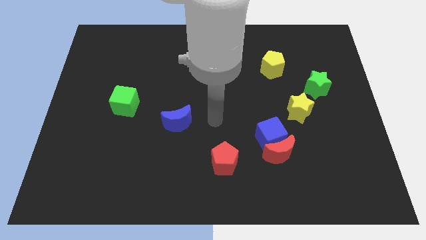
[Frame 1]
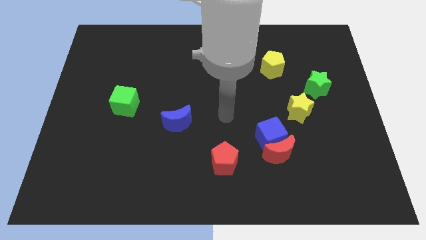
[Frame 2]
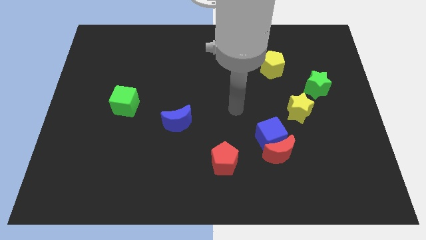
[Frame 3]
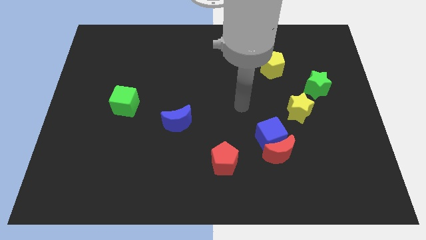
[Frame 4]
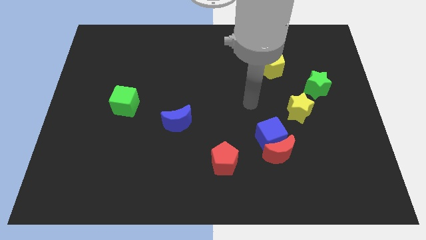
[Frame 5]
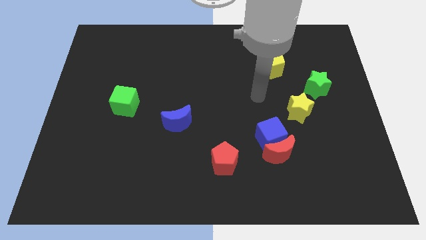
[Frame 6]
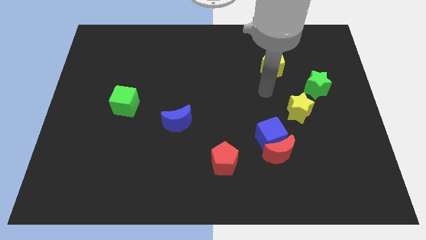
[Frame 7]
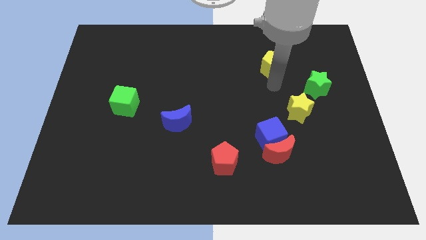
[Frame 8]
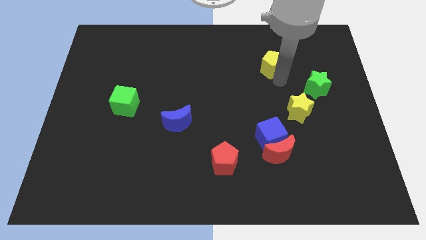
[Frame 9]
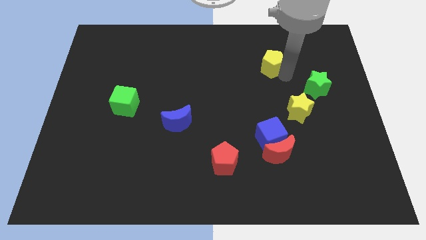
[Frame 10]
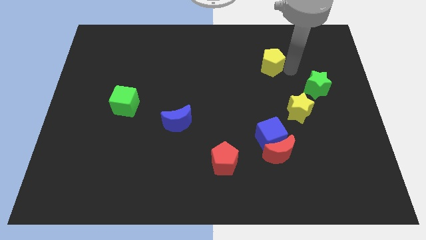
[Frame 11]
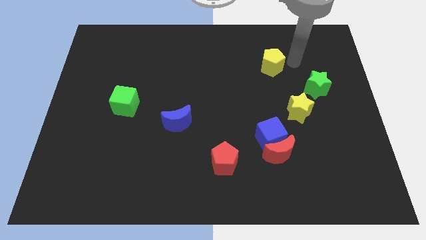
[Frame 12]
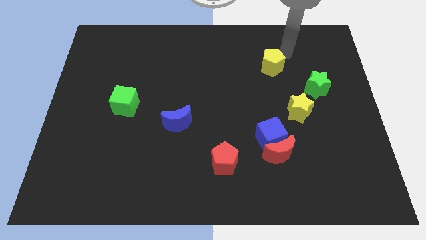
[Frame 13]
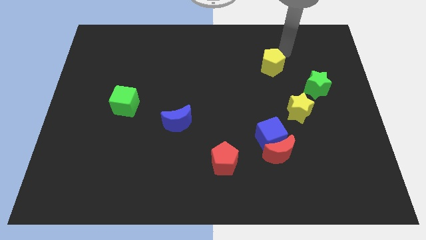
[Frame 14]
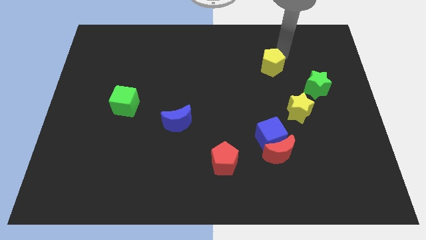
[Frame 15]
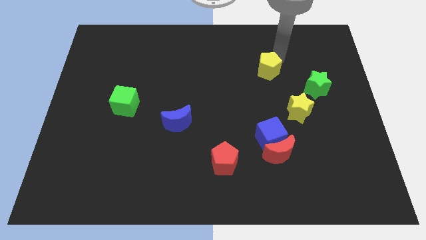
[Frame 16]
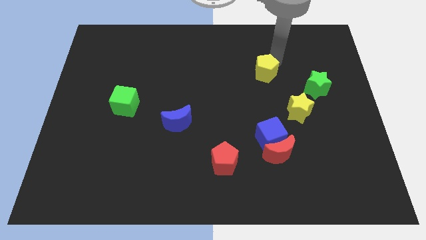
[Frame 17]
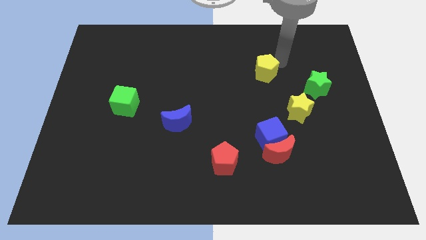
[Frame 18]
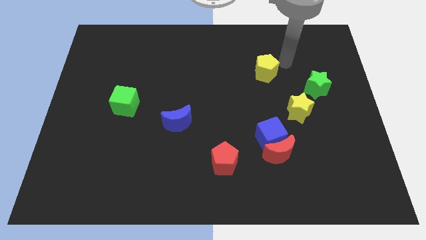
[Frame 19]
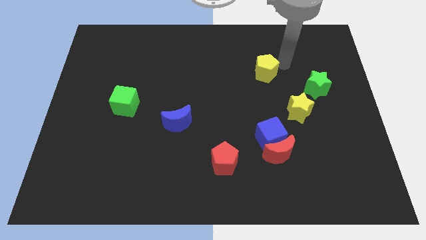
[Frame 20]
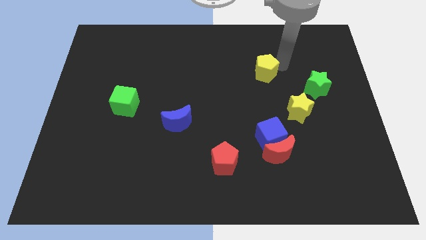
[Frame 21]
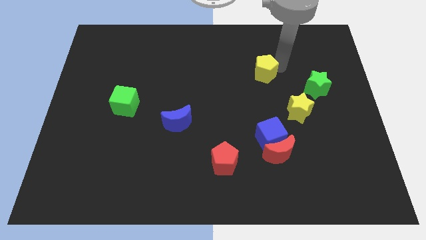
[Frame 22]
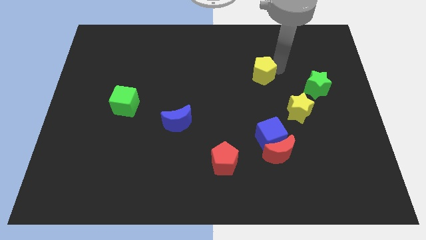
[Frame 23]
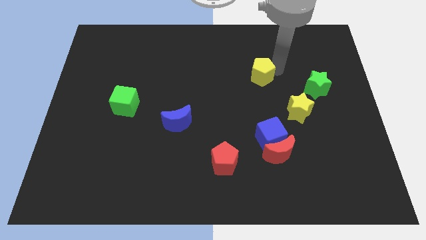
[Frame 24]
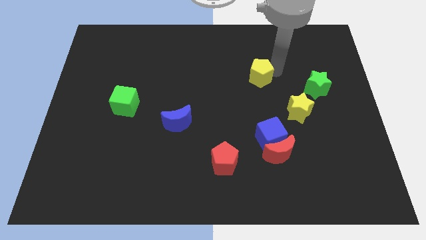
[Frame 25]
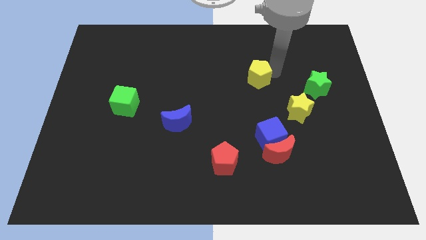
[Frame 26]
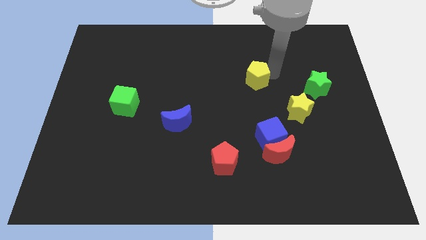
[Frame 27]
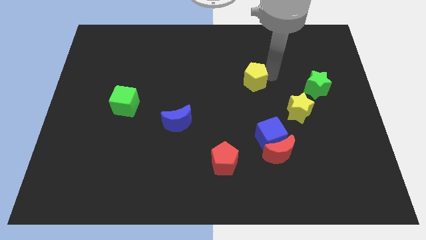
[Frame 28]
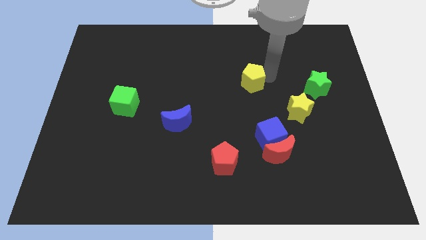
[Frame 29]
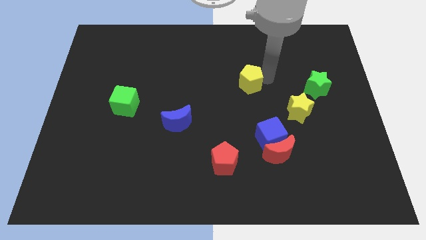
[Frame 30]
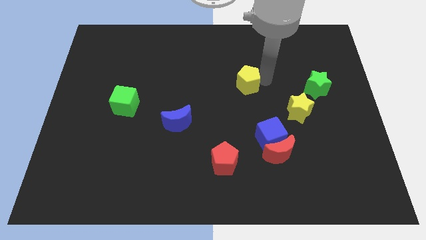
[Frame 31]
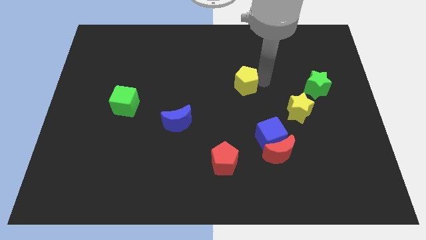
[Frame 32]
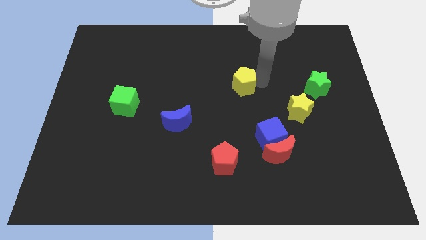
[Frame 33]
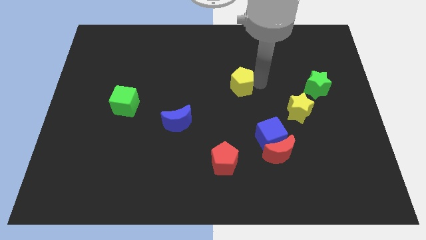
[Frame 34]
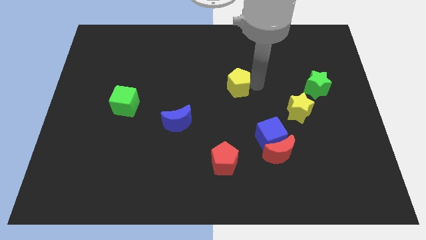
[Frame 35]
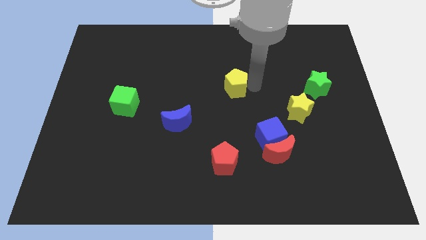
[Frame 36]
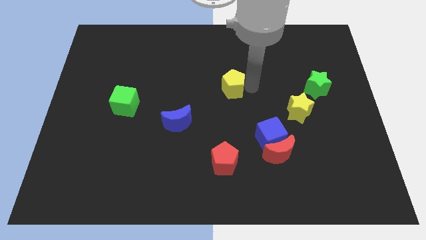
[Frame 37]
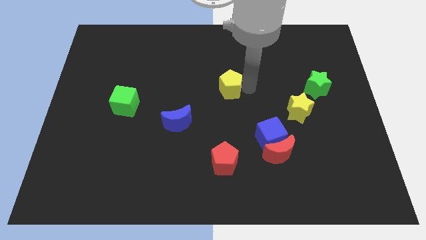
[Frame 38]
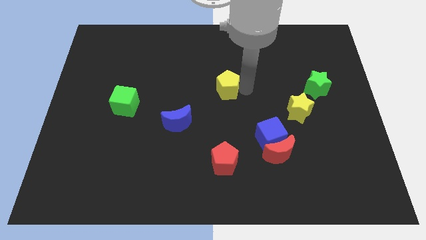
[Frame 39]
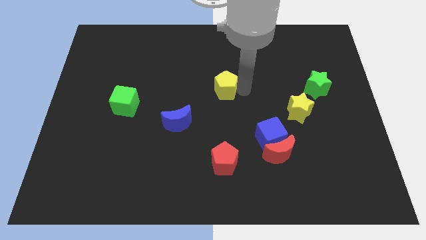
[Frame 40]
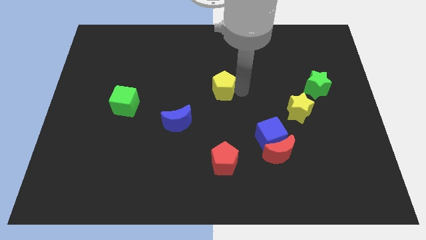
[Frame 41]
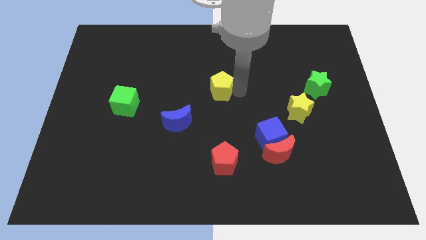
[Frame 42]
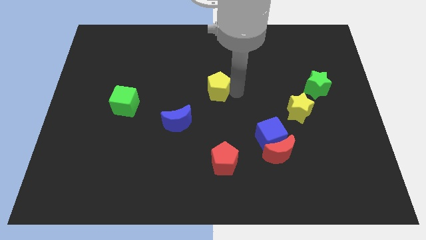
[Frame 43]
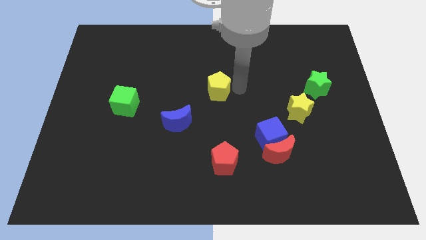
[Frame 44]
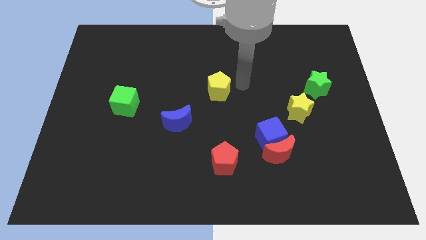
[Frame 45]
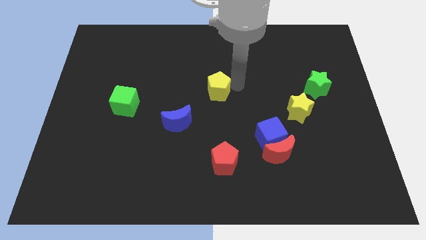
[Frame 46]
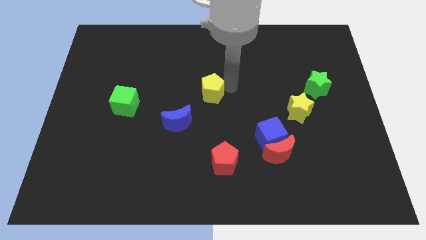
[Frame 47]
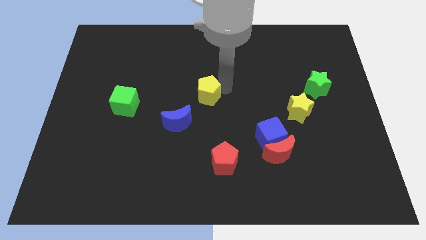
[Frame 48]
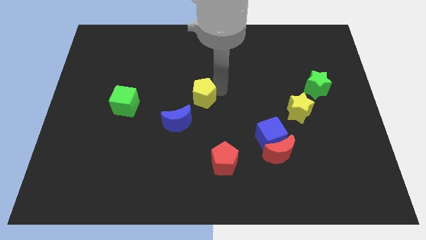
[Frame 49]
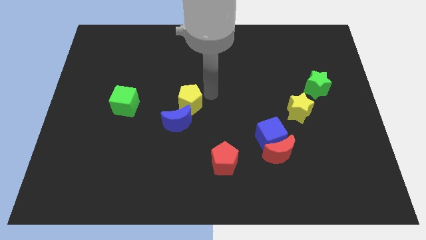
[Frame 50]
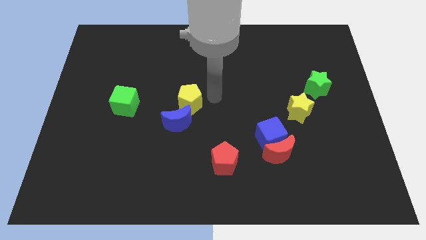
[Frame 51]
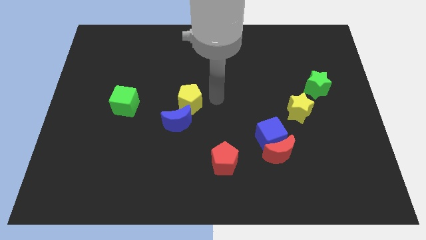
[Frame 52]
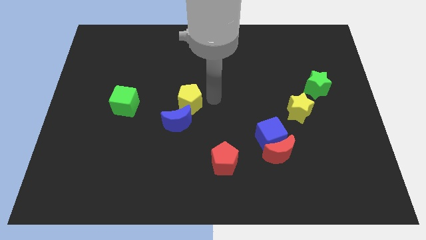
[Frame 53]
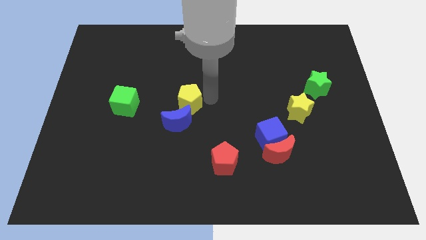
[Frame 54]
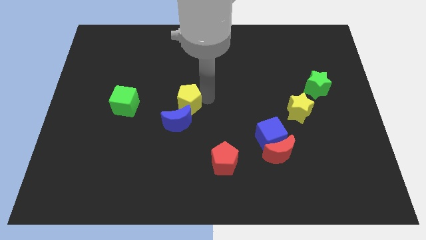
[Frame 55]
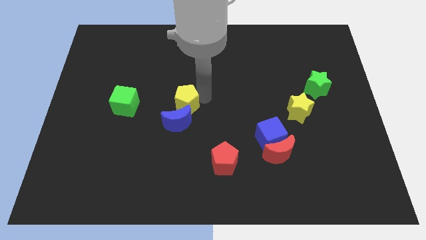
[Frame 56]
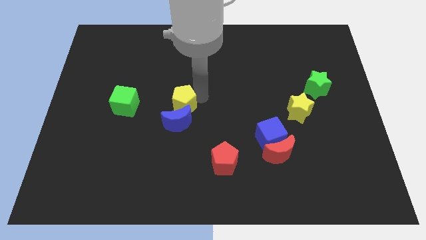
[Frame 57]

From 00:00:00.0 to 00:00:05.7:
slide the yellow pentagon to the top left side of the blue moon

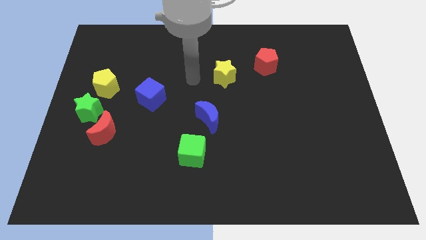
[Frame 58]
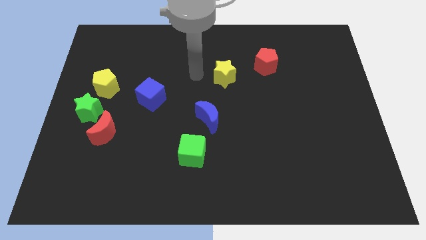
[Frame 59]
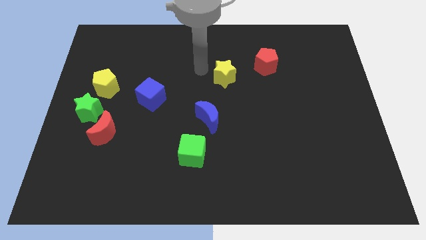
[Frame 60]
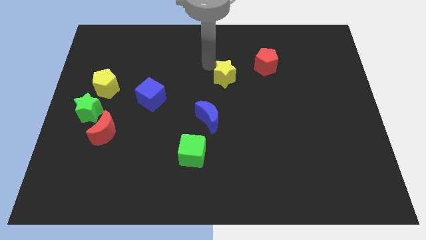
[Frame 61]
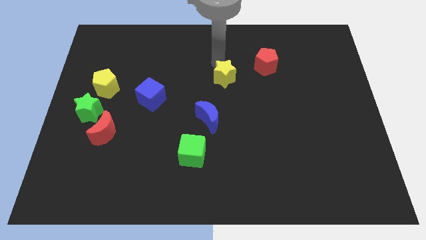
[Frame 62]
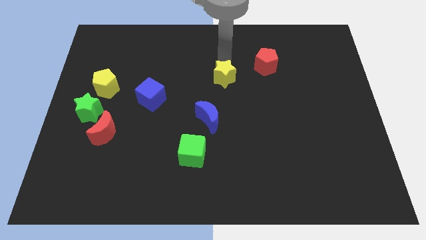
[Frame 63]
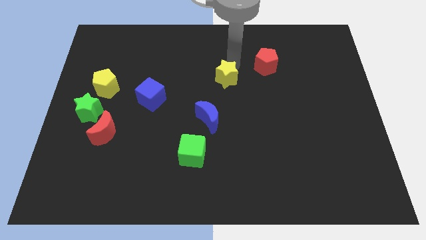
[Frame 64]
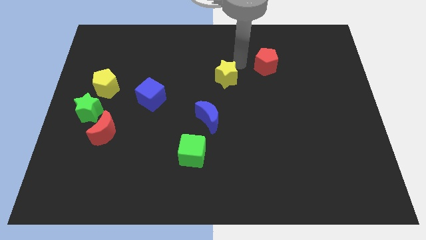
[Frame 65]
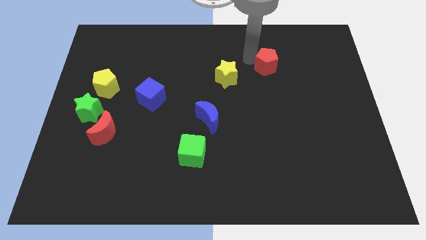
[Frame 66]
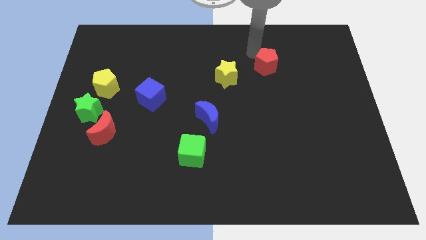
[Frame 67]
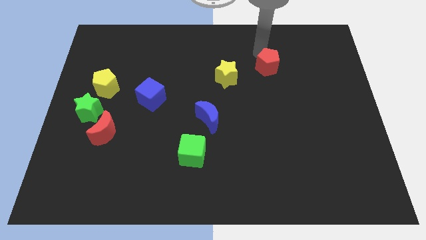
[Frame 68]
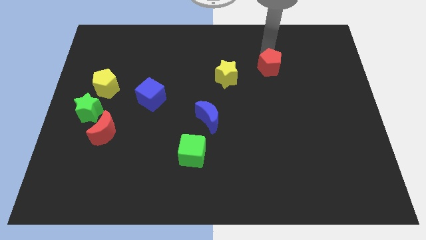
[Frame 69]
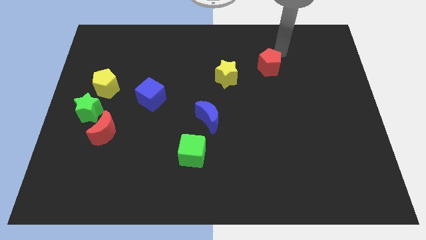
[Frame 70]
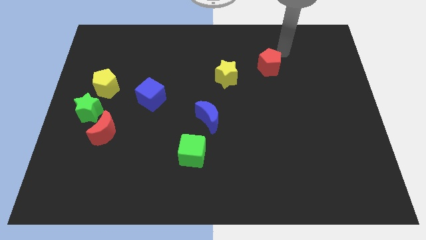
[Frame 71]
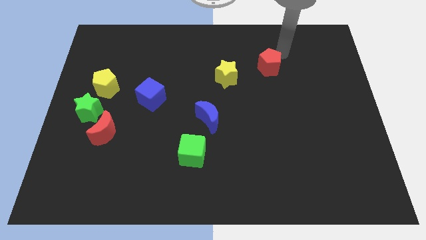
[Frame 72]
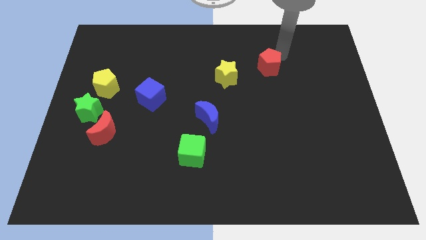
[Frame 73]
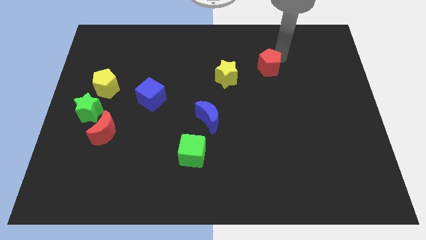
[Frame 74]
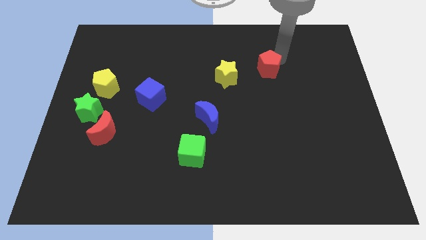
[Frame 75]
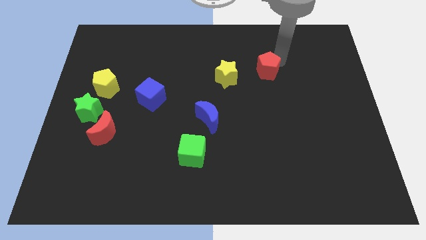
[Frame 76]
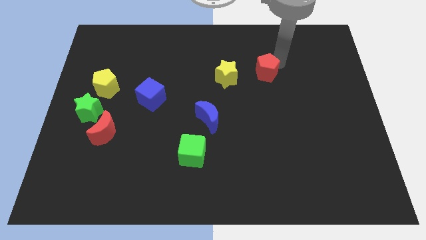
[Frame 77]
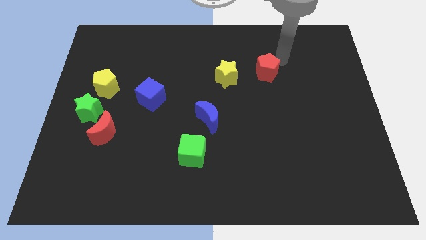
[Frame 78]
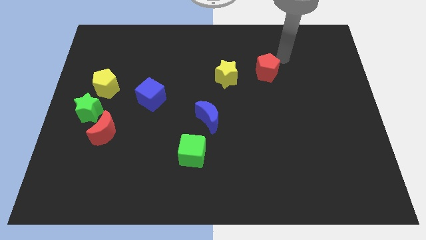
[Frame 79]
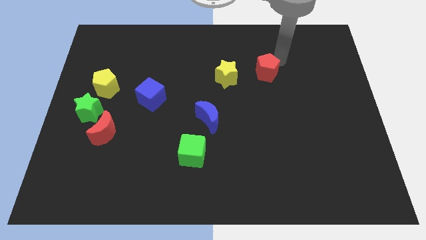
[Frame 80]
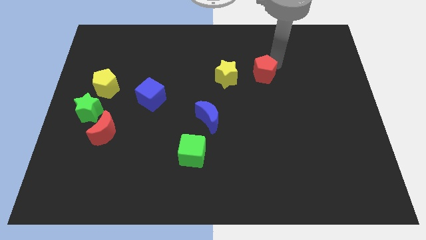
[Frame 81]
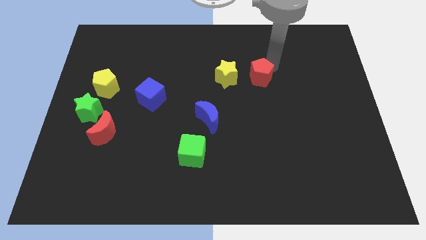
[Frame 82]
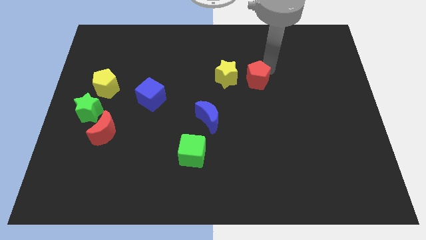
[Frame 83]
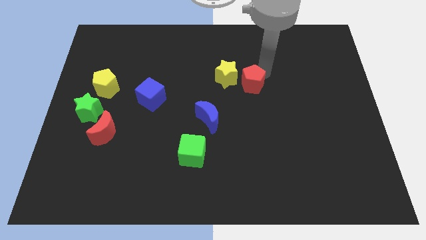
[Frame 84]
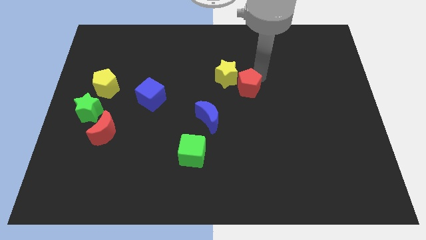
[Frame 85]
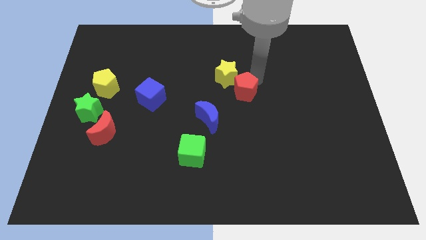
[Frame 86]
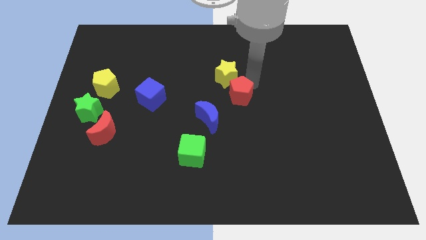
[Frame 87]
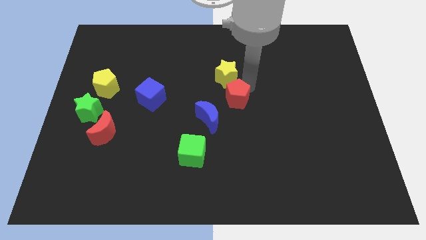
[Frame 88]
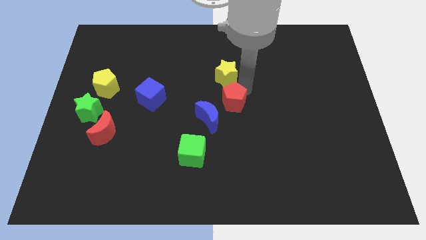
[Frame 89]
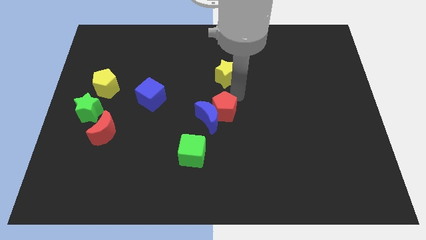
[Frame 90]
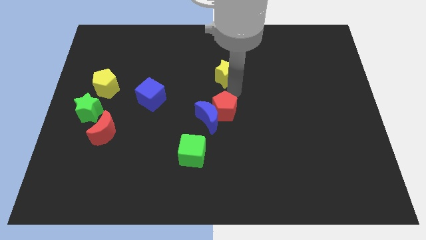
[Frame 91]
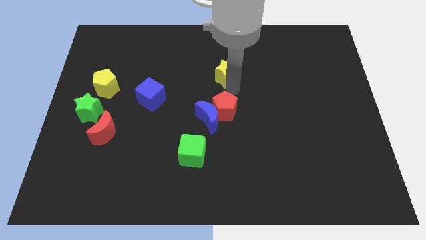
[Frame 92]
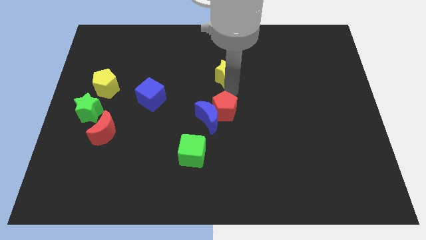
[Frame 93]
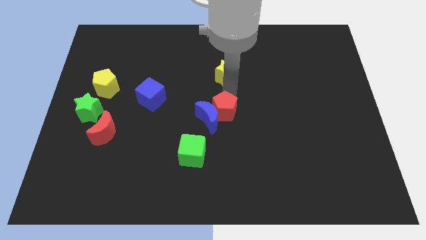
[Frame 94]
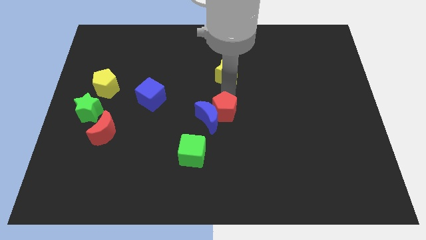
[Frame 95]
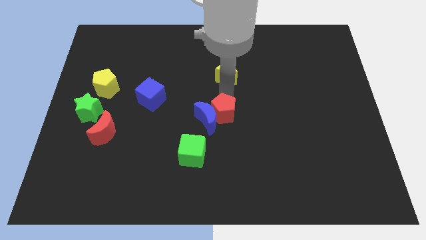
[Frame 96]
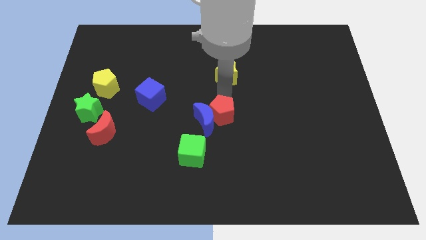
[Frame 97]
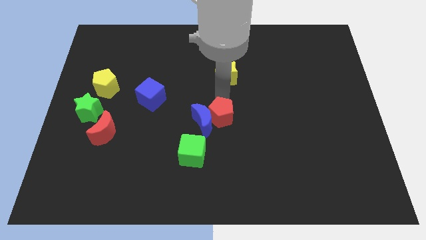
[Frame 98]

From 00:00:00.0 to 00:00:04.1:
slide the red pentagon diagonally up and to the right of the green cube
